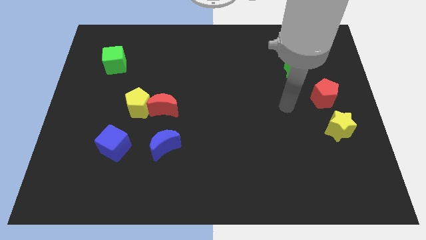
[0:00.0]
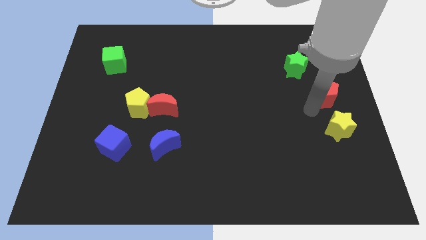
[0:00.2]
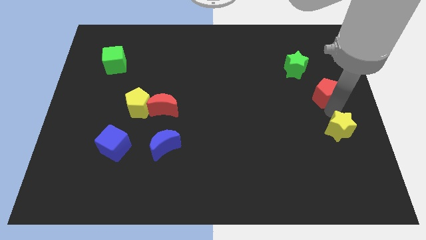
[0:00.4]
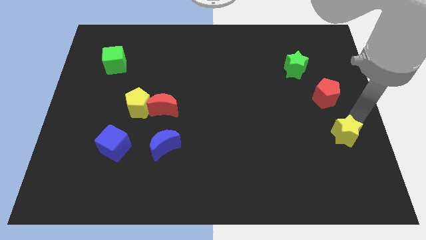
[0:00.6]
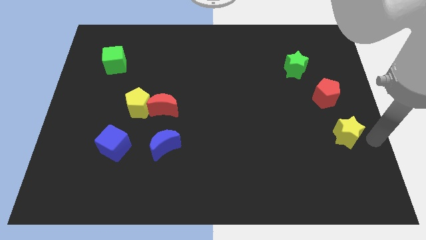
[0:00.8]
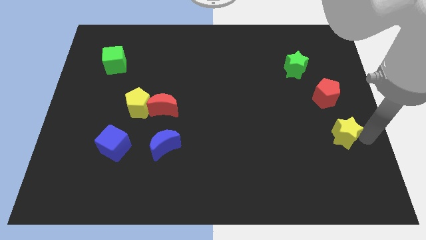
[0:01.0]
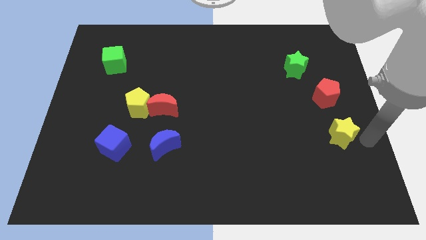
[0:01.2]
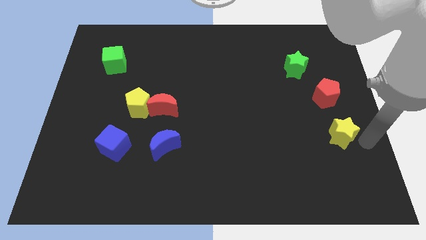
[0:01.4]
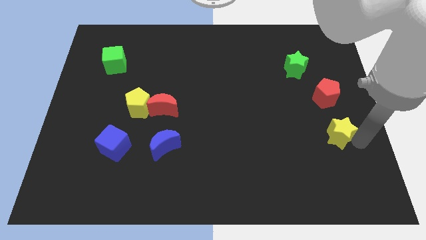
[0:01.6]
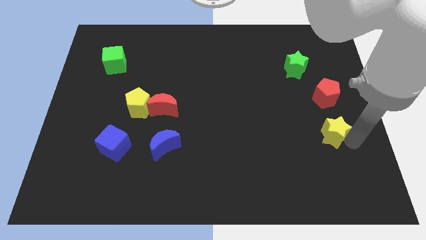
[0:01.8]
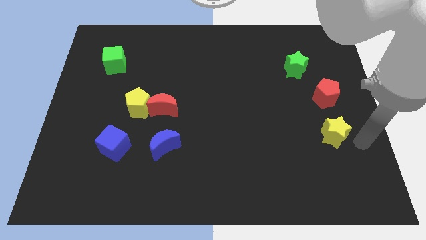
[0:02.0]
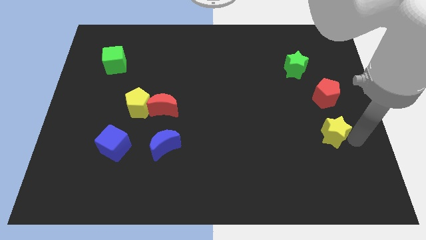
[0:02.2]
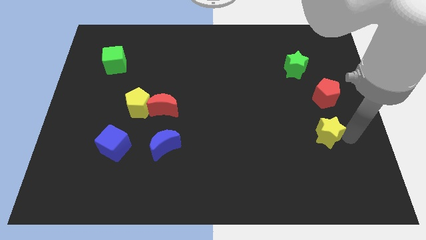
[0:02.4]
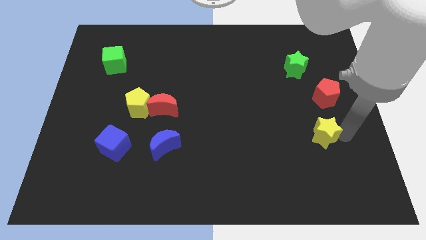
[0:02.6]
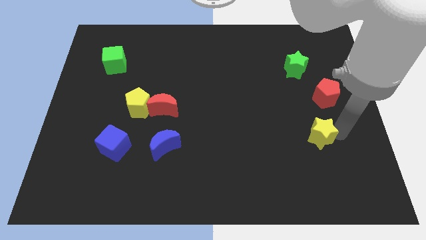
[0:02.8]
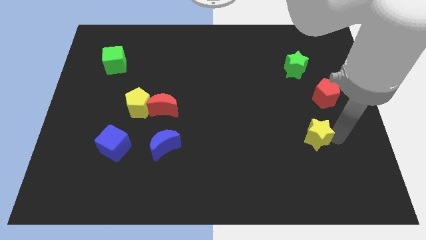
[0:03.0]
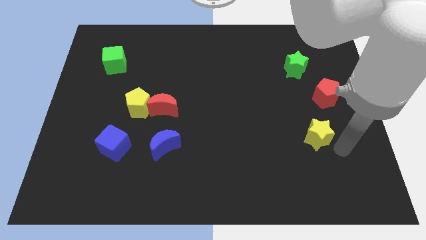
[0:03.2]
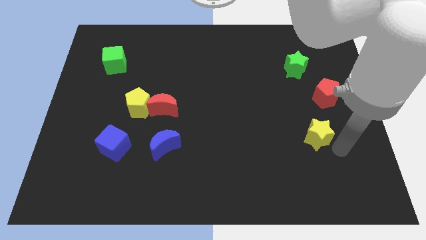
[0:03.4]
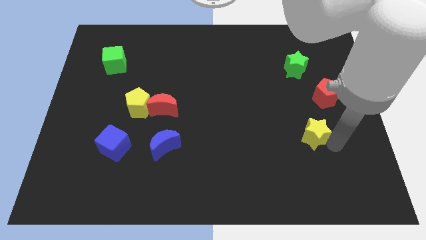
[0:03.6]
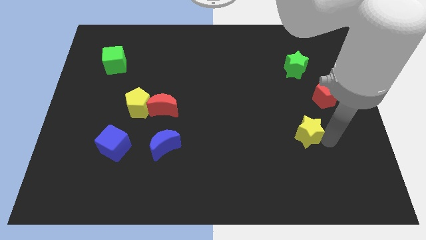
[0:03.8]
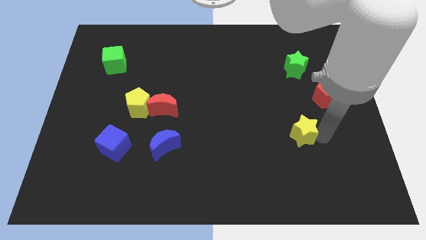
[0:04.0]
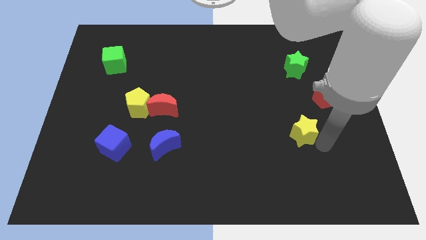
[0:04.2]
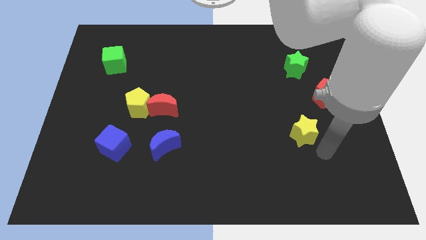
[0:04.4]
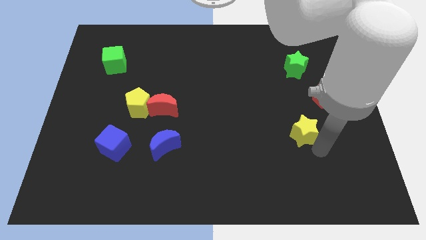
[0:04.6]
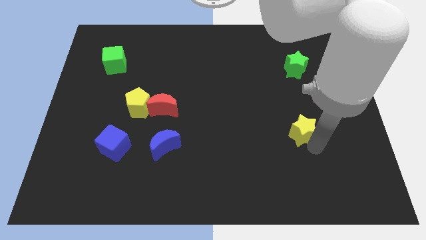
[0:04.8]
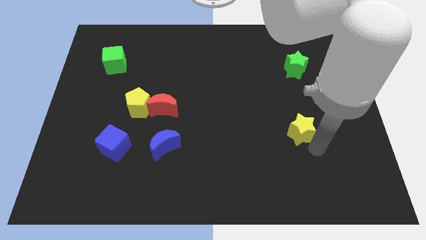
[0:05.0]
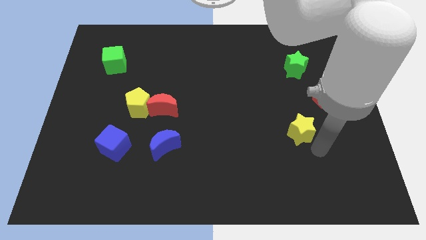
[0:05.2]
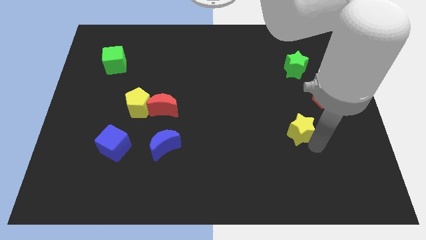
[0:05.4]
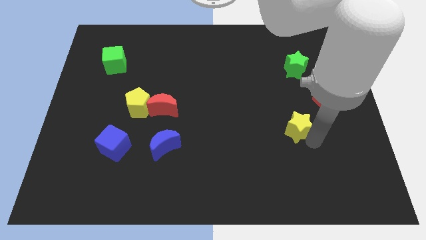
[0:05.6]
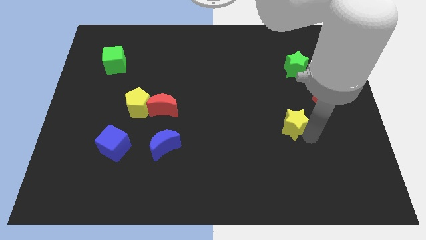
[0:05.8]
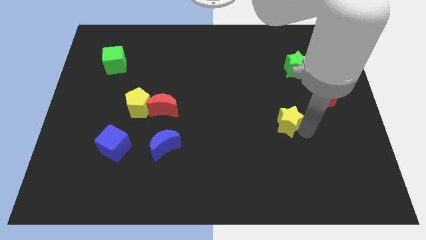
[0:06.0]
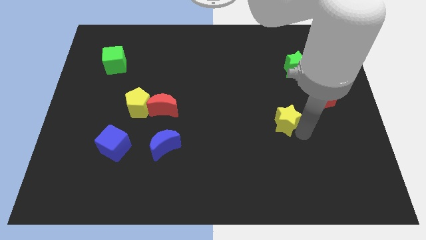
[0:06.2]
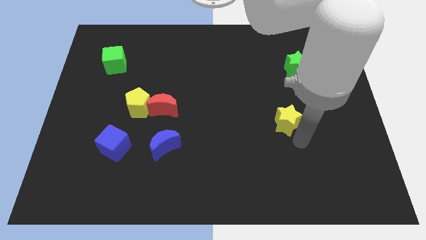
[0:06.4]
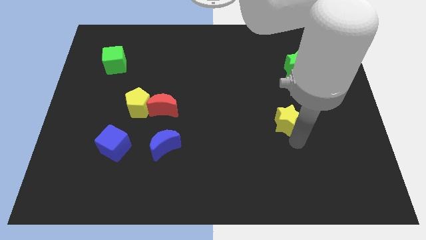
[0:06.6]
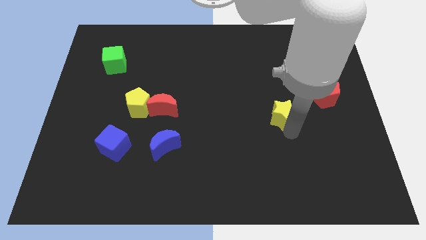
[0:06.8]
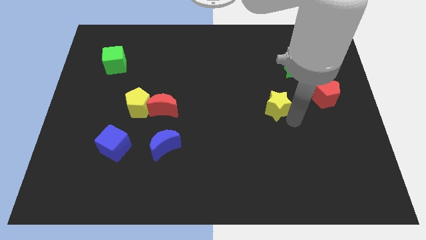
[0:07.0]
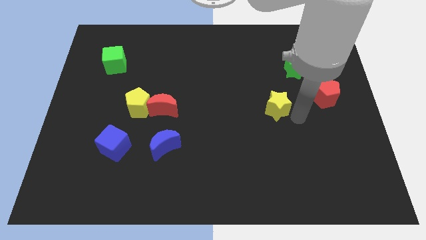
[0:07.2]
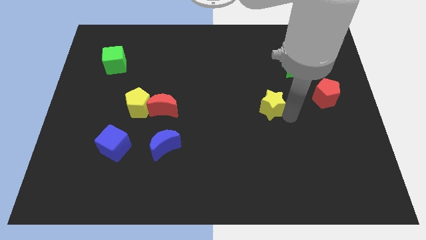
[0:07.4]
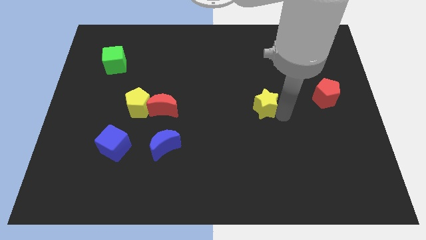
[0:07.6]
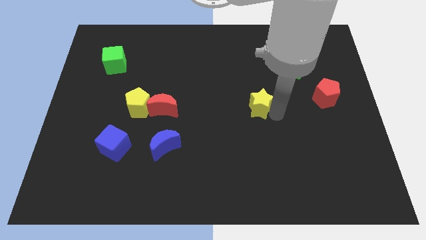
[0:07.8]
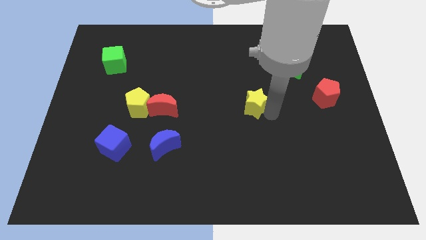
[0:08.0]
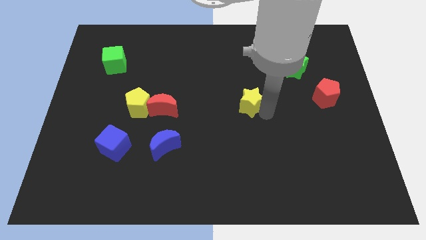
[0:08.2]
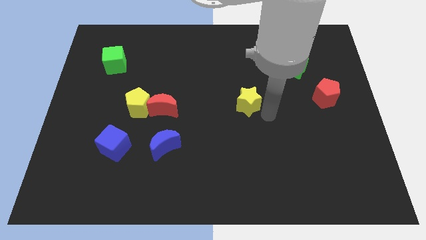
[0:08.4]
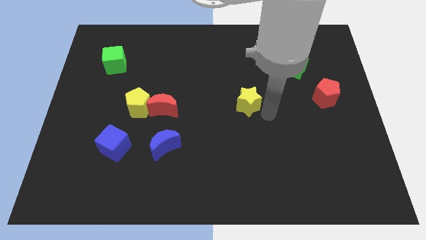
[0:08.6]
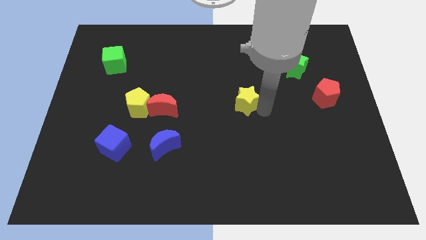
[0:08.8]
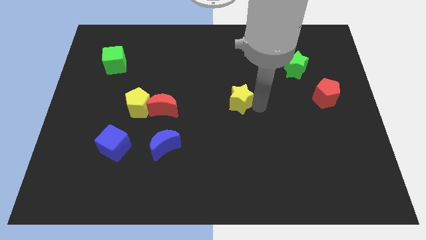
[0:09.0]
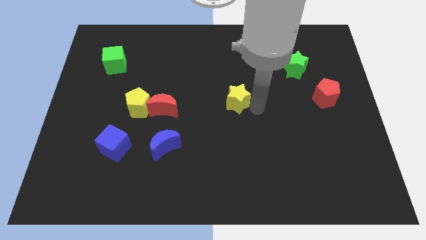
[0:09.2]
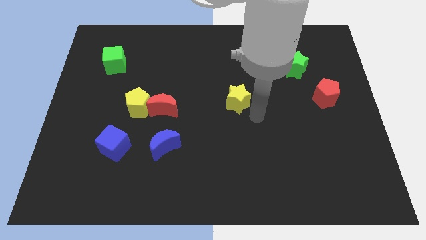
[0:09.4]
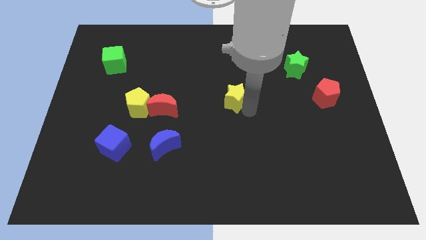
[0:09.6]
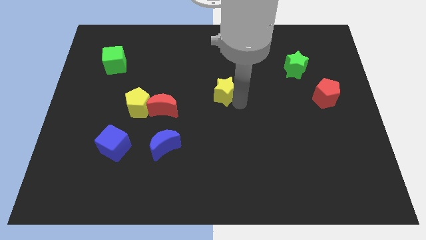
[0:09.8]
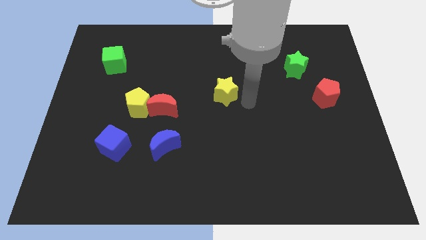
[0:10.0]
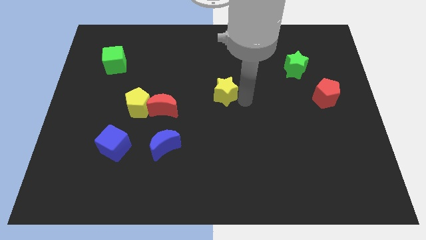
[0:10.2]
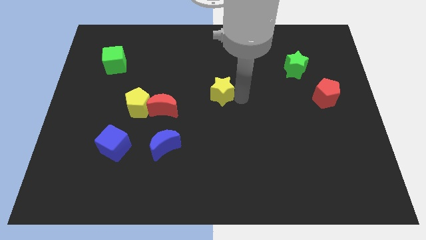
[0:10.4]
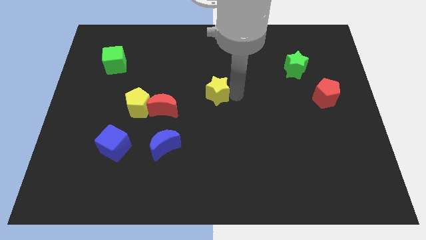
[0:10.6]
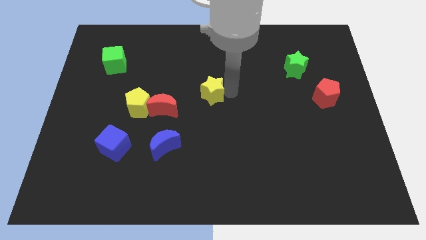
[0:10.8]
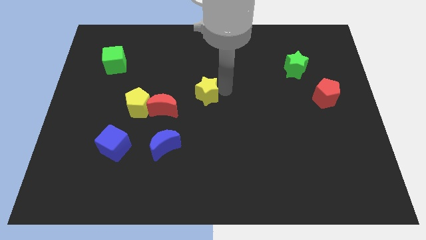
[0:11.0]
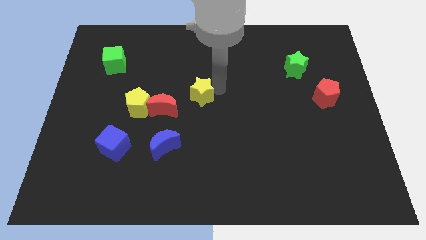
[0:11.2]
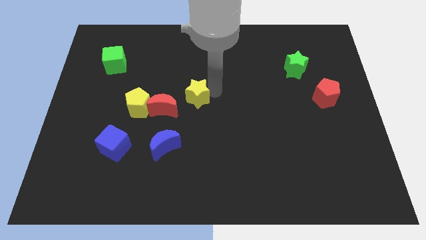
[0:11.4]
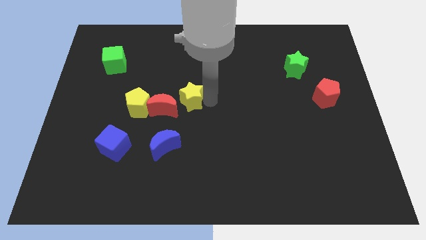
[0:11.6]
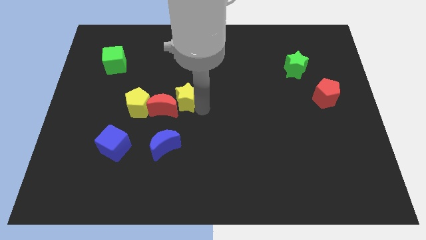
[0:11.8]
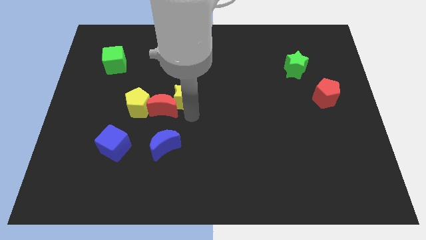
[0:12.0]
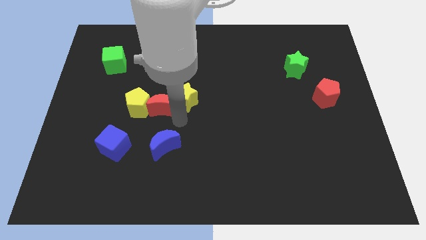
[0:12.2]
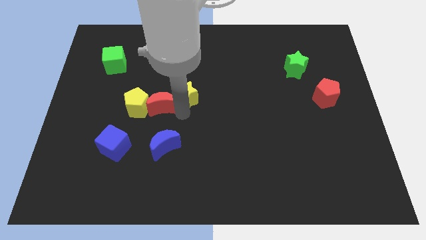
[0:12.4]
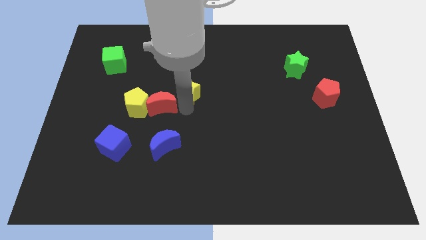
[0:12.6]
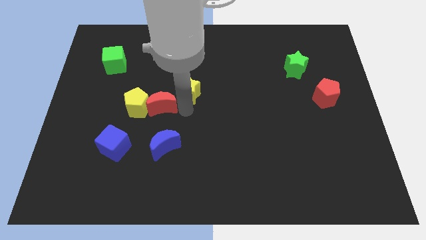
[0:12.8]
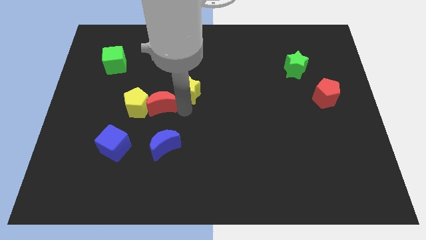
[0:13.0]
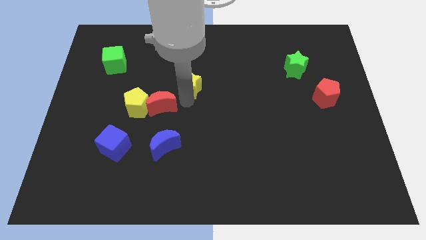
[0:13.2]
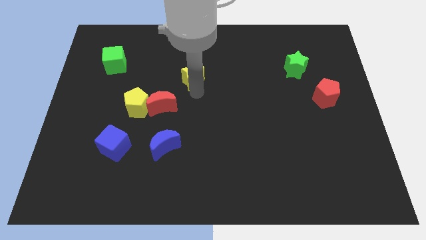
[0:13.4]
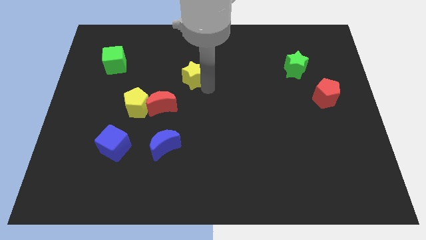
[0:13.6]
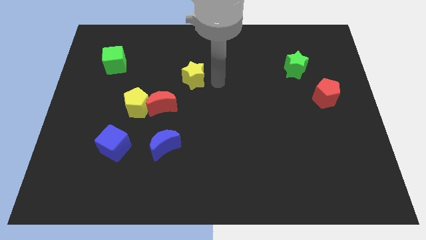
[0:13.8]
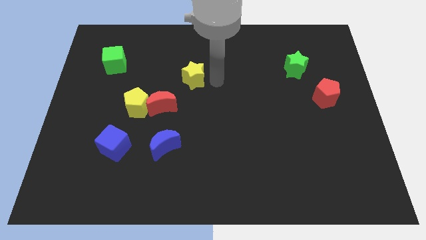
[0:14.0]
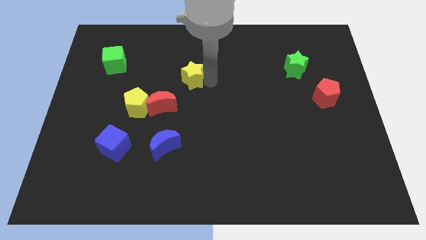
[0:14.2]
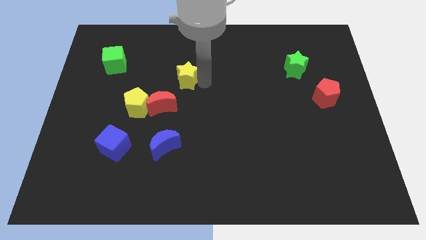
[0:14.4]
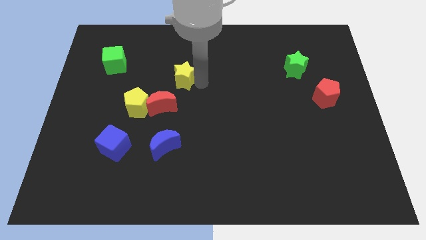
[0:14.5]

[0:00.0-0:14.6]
push the yellow star to the top side of the red moon

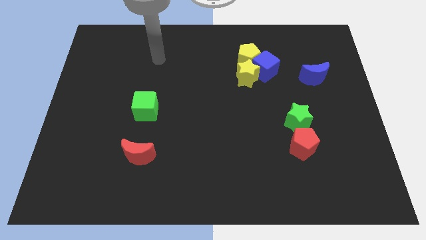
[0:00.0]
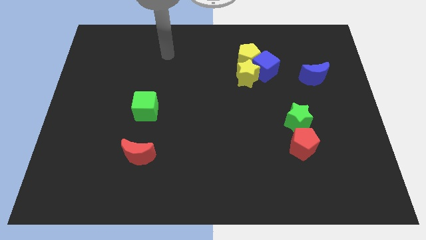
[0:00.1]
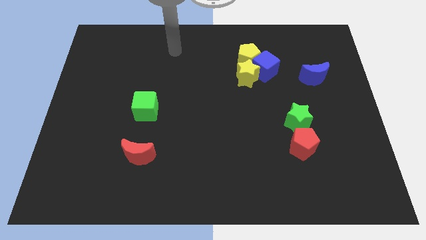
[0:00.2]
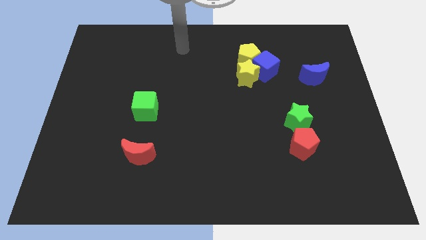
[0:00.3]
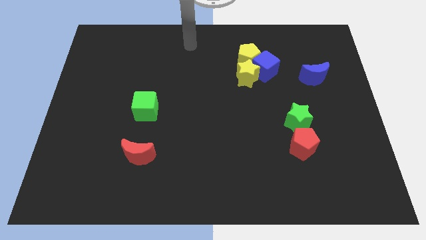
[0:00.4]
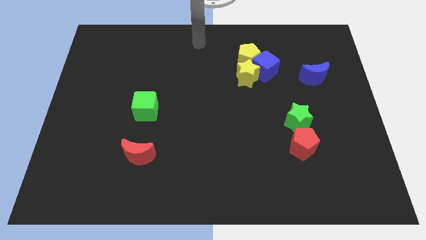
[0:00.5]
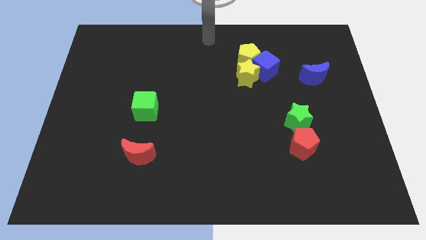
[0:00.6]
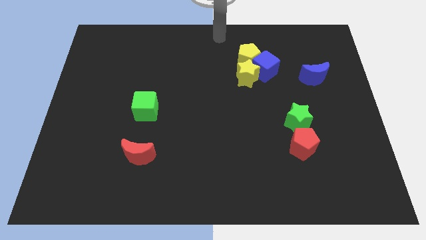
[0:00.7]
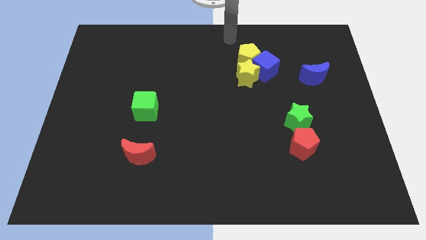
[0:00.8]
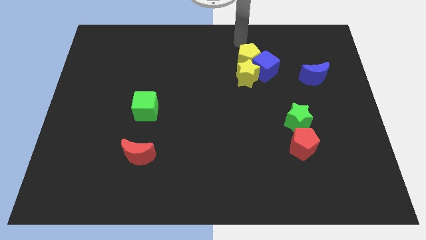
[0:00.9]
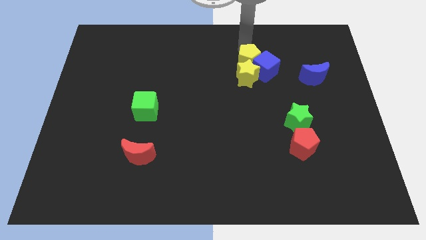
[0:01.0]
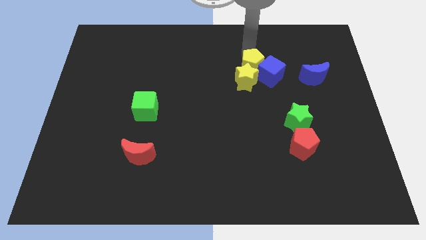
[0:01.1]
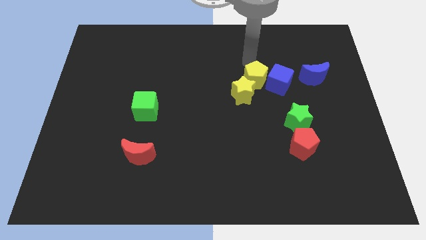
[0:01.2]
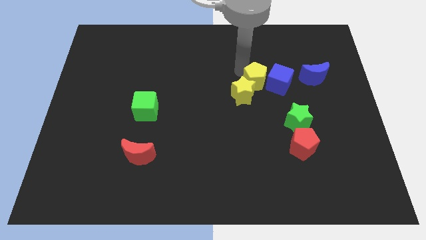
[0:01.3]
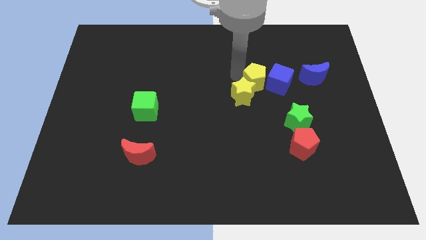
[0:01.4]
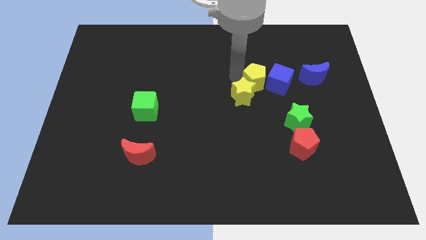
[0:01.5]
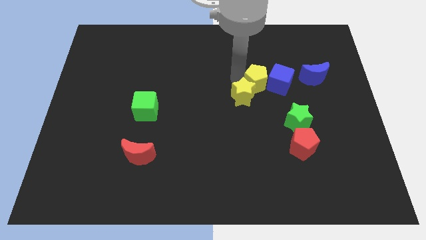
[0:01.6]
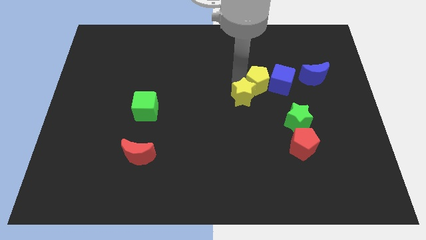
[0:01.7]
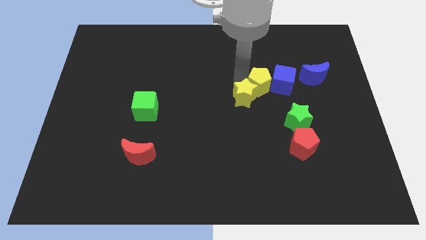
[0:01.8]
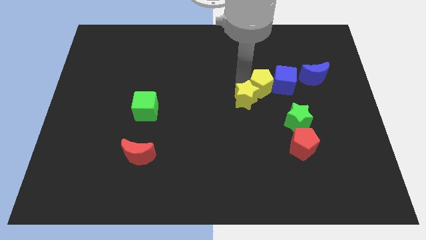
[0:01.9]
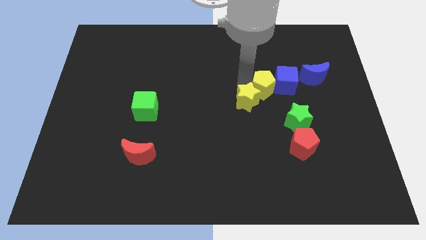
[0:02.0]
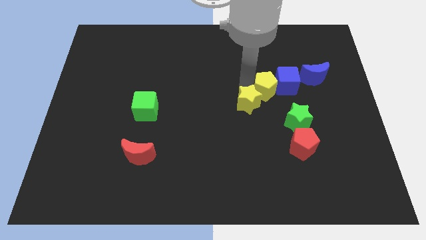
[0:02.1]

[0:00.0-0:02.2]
push the yellow star left of the green star
